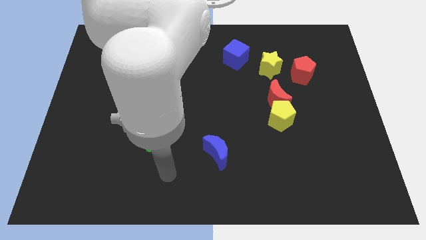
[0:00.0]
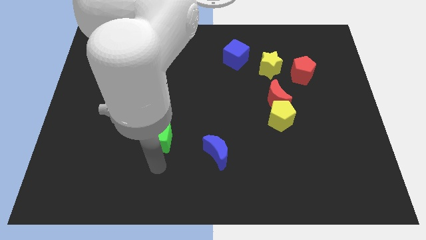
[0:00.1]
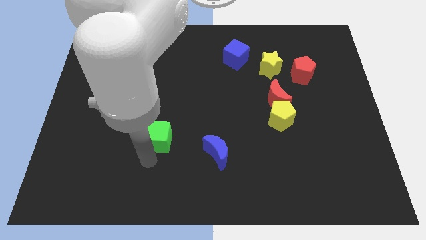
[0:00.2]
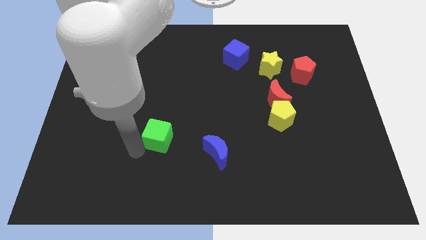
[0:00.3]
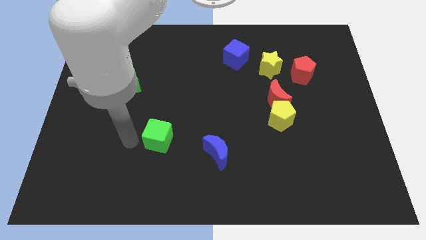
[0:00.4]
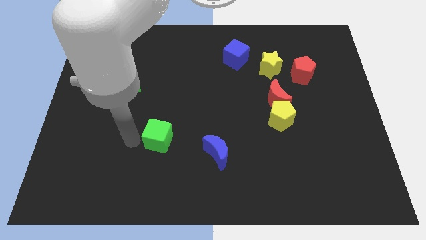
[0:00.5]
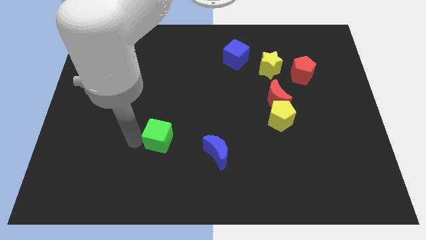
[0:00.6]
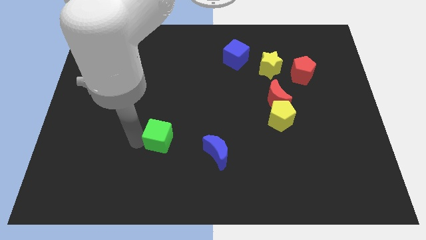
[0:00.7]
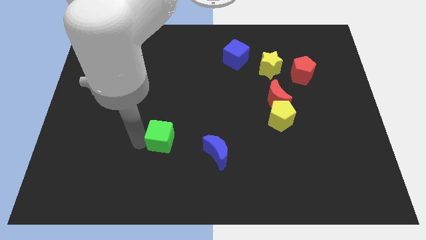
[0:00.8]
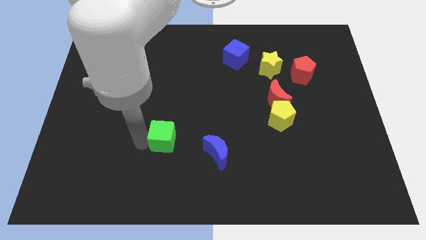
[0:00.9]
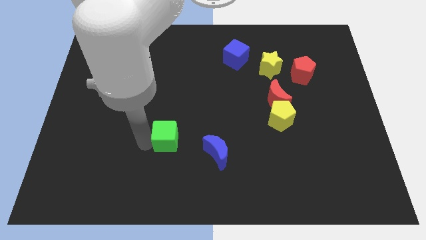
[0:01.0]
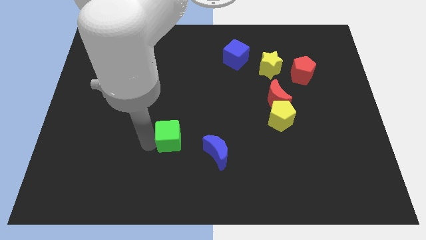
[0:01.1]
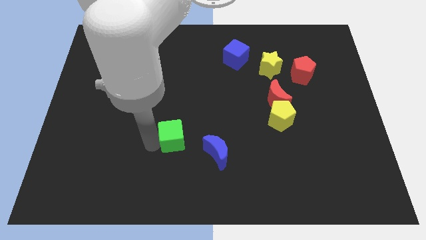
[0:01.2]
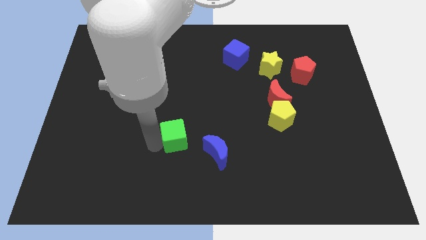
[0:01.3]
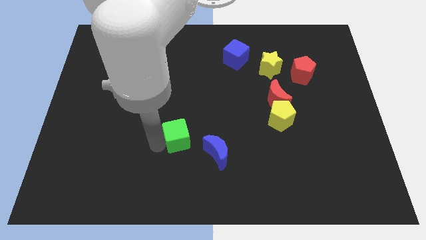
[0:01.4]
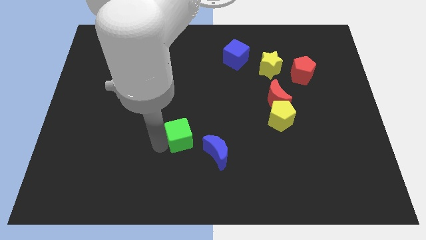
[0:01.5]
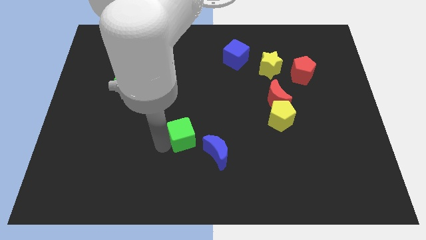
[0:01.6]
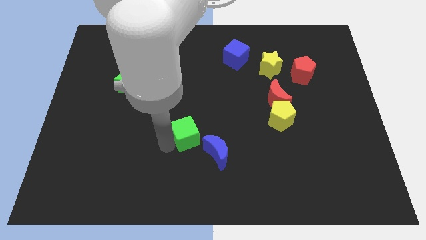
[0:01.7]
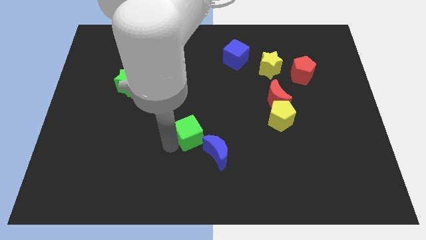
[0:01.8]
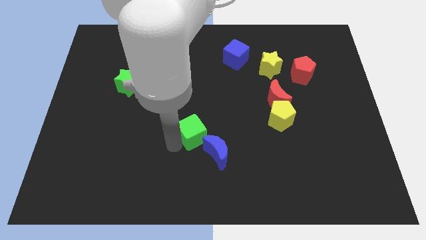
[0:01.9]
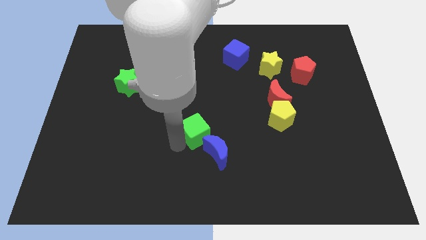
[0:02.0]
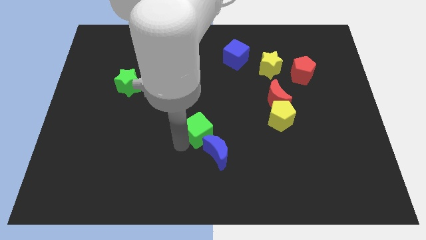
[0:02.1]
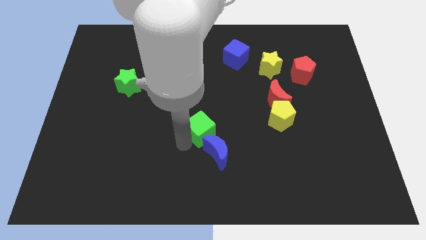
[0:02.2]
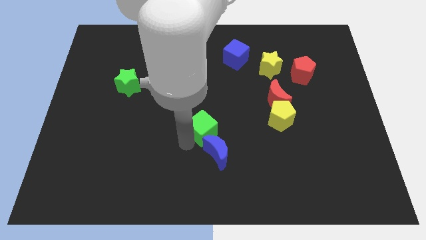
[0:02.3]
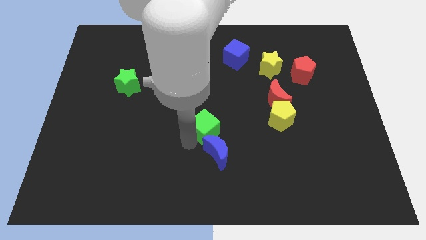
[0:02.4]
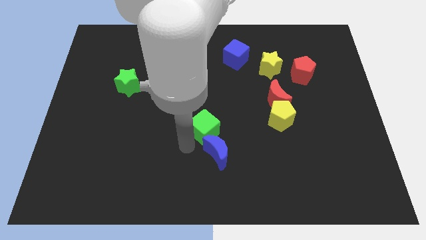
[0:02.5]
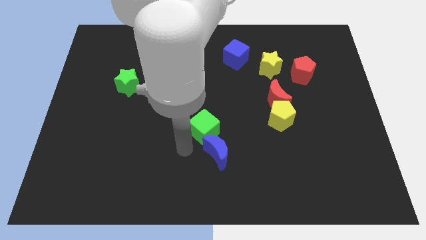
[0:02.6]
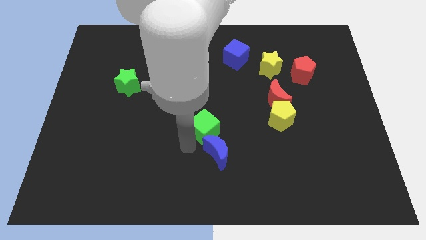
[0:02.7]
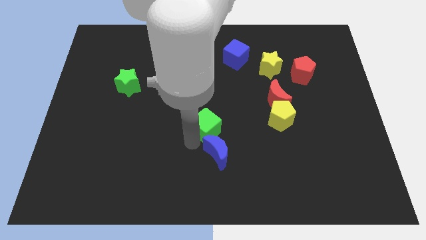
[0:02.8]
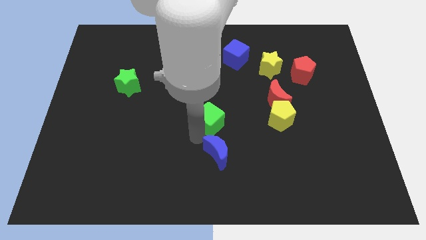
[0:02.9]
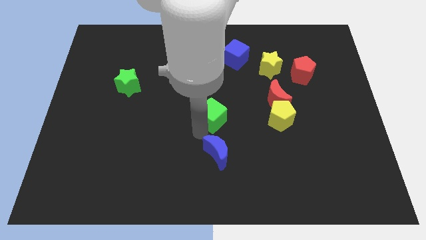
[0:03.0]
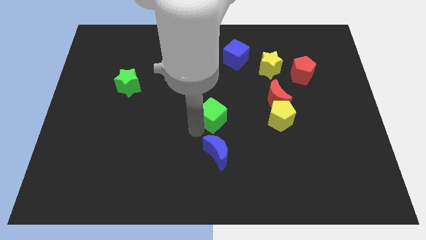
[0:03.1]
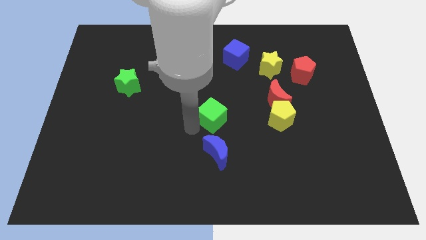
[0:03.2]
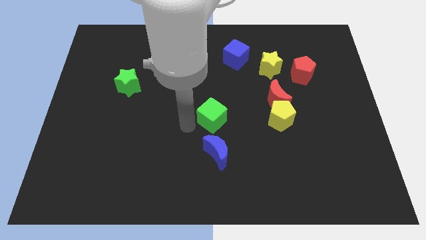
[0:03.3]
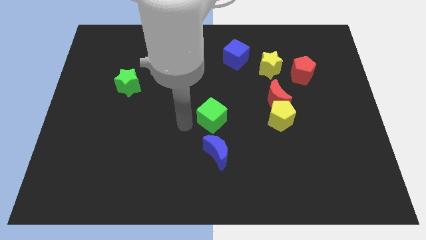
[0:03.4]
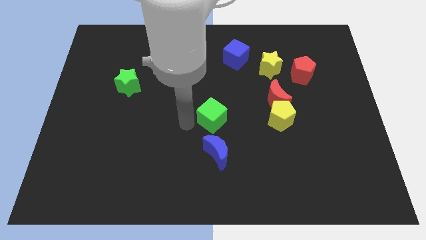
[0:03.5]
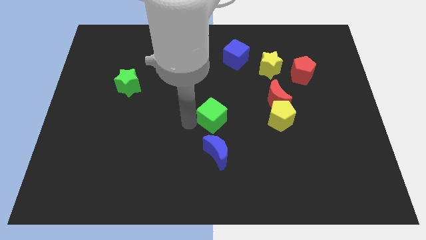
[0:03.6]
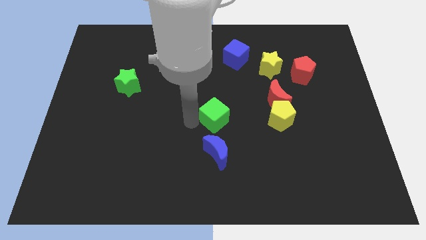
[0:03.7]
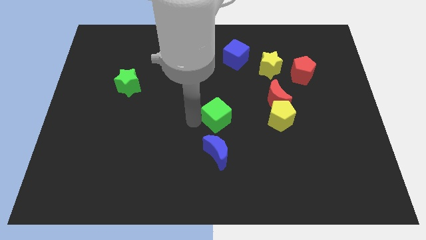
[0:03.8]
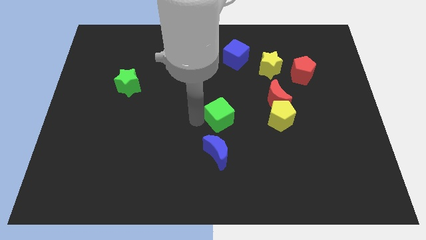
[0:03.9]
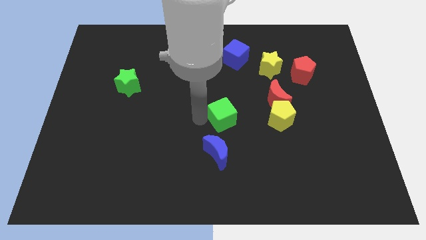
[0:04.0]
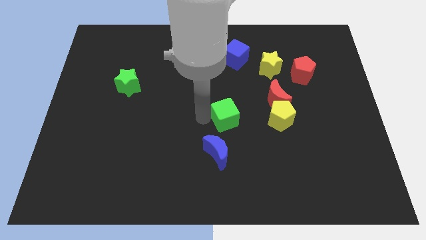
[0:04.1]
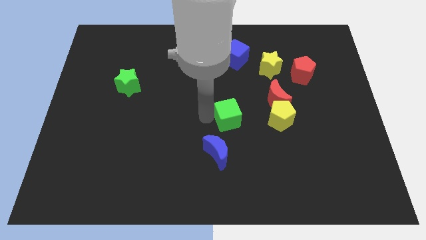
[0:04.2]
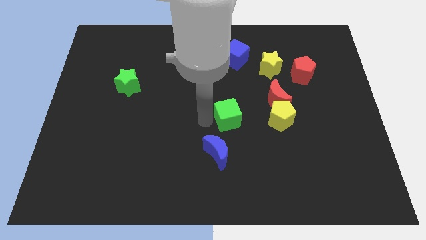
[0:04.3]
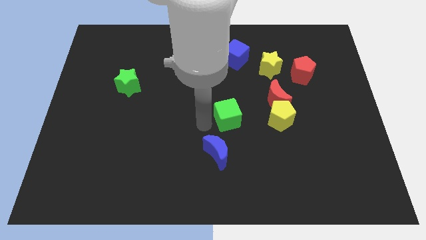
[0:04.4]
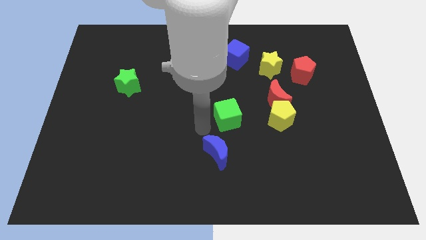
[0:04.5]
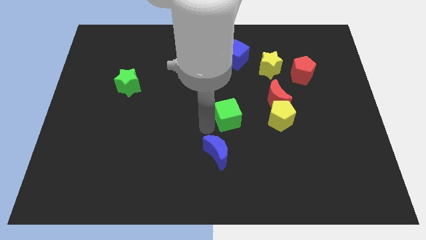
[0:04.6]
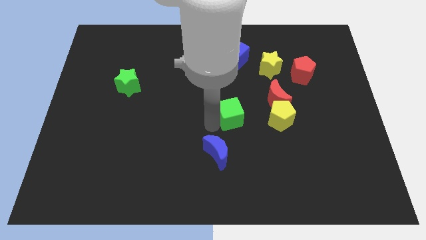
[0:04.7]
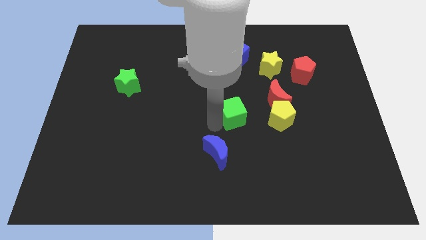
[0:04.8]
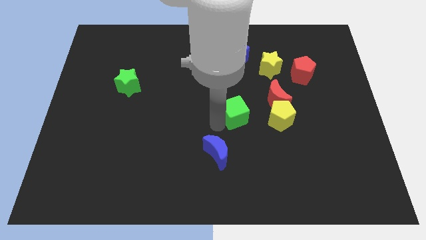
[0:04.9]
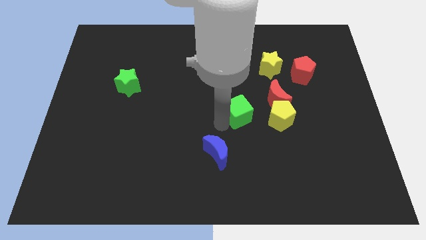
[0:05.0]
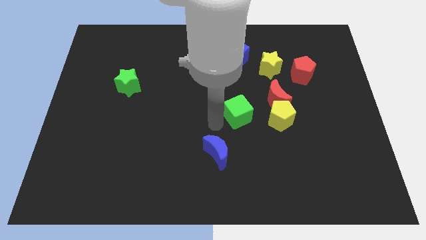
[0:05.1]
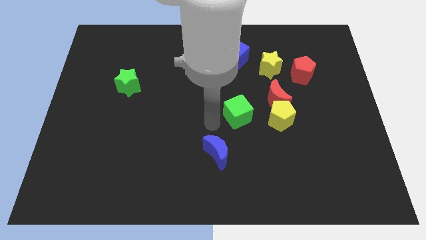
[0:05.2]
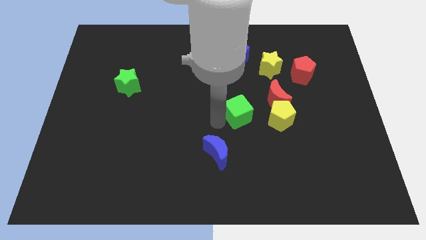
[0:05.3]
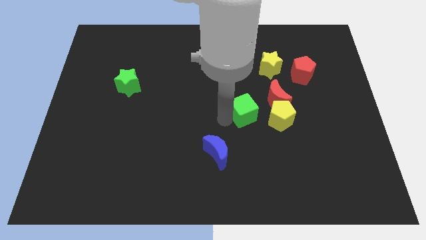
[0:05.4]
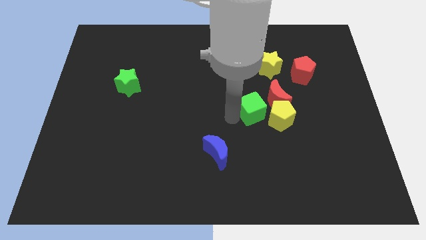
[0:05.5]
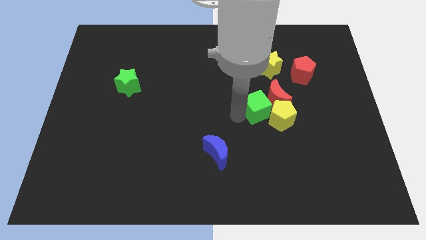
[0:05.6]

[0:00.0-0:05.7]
slide the green cube next to the red moon

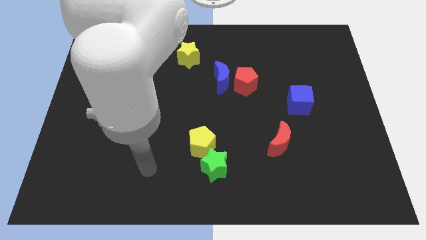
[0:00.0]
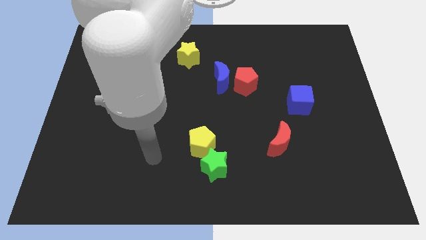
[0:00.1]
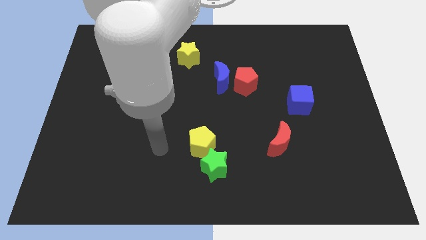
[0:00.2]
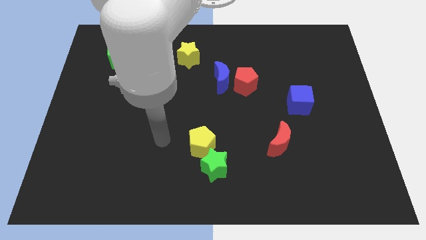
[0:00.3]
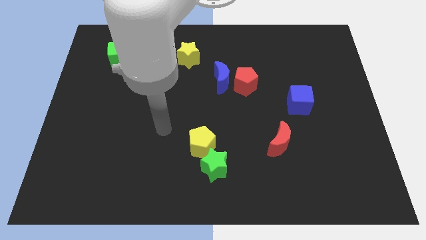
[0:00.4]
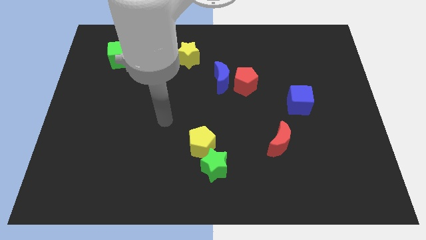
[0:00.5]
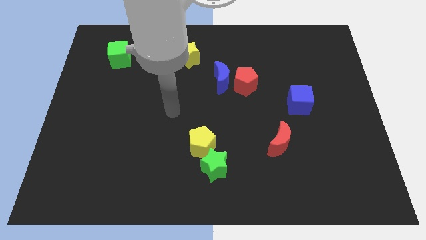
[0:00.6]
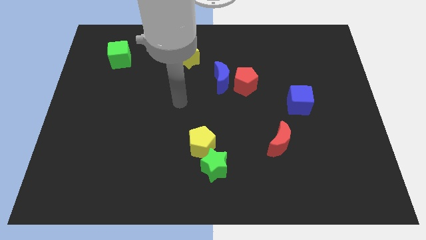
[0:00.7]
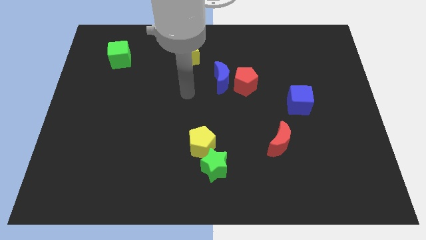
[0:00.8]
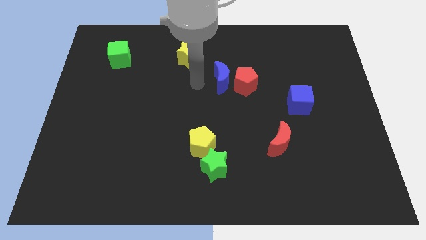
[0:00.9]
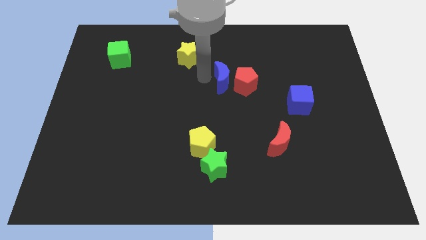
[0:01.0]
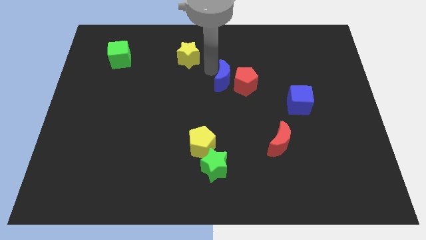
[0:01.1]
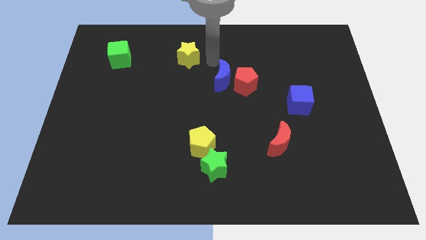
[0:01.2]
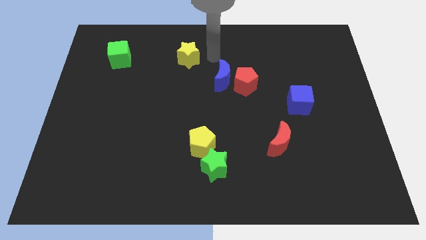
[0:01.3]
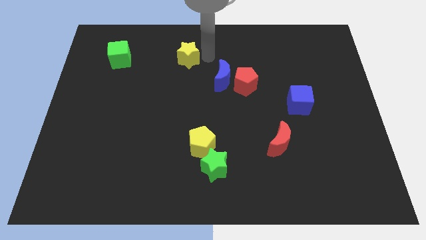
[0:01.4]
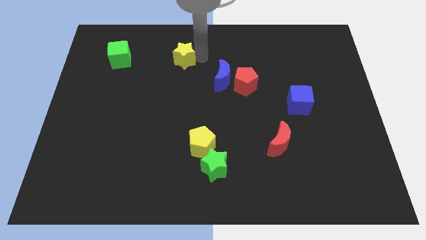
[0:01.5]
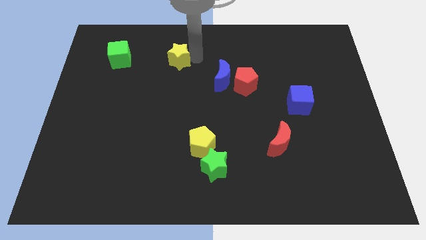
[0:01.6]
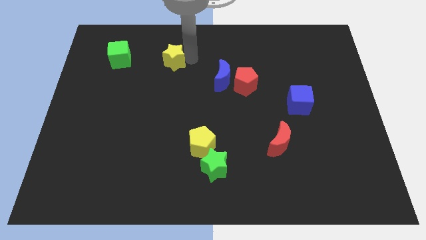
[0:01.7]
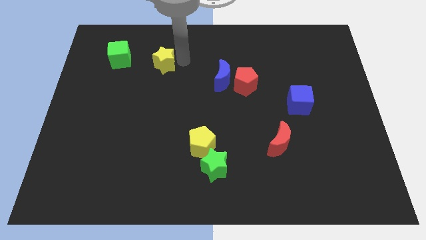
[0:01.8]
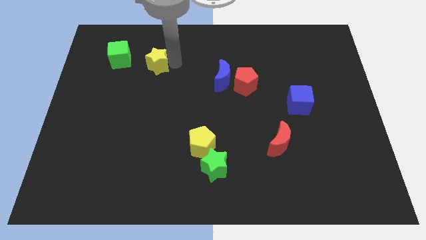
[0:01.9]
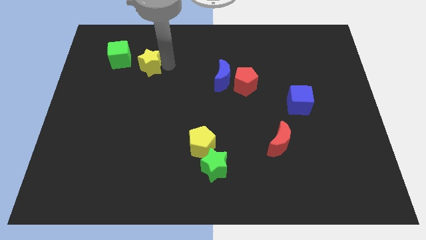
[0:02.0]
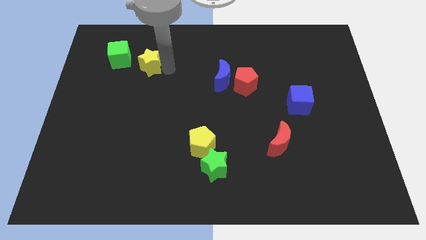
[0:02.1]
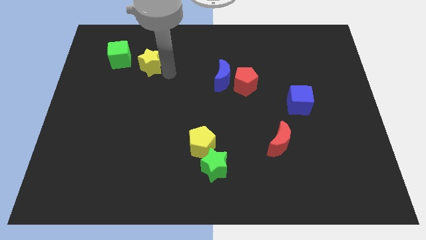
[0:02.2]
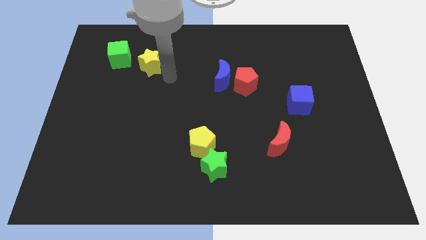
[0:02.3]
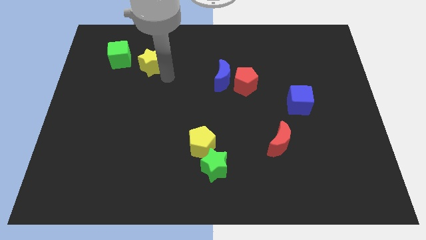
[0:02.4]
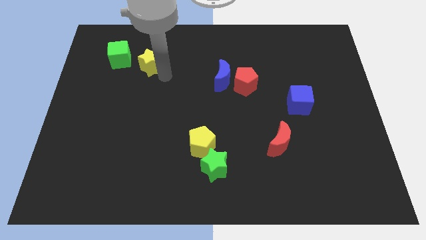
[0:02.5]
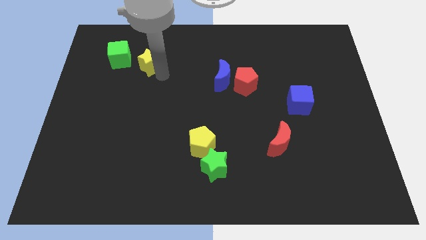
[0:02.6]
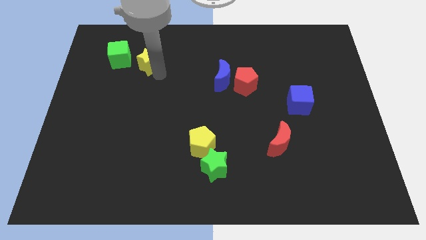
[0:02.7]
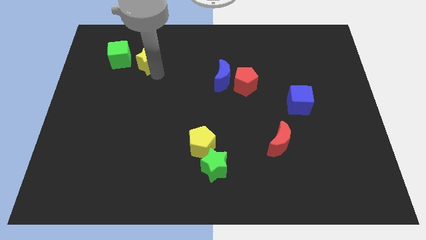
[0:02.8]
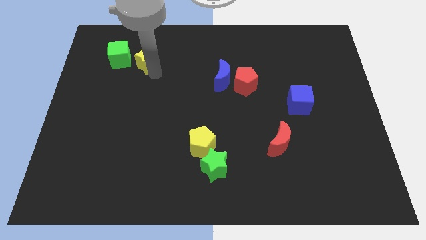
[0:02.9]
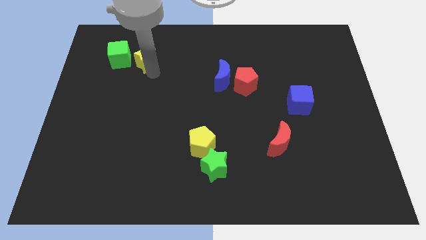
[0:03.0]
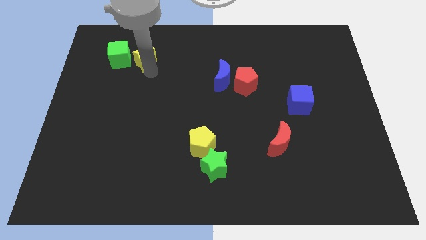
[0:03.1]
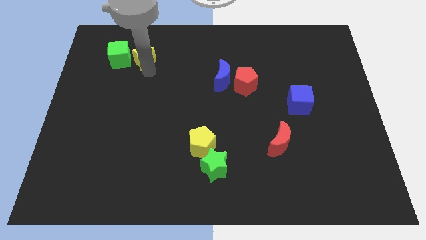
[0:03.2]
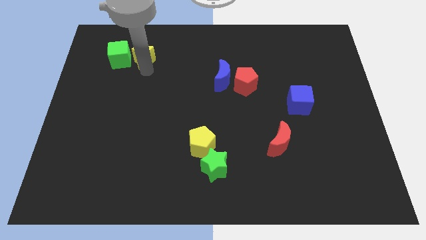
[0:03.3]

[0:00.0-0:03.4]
move the yellow star next to the green cube
